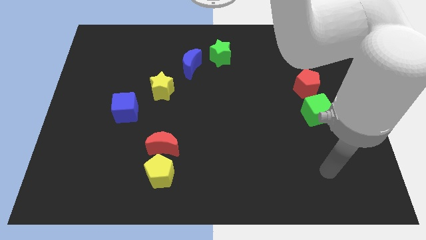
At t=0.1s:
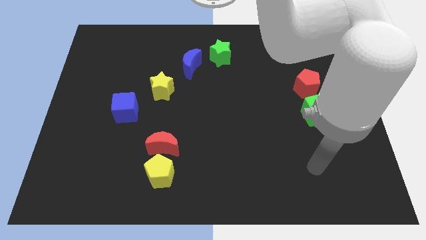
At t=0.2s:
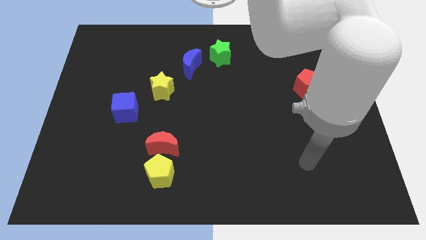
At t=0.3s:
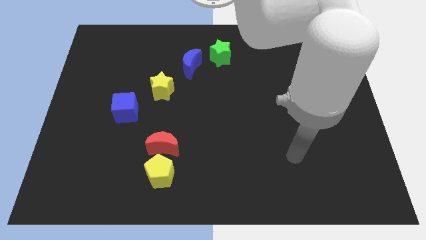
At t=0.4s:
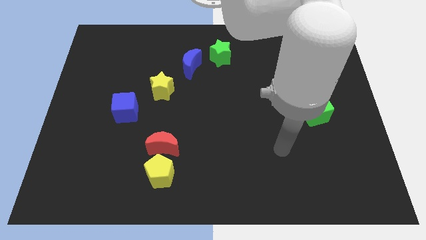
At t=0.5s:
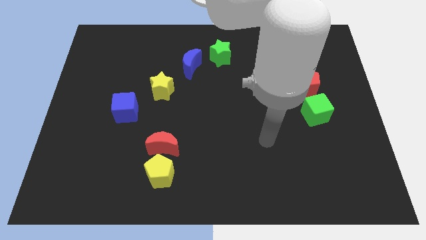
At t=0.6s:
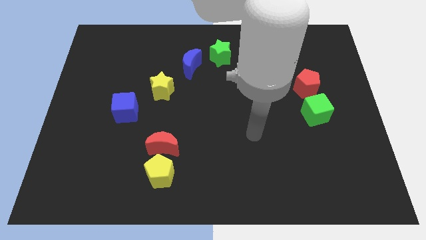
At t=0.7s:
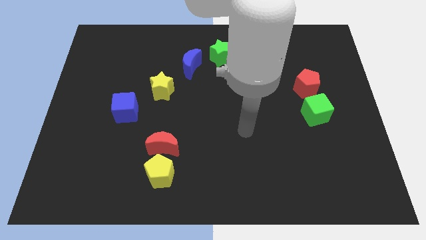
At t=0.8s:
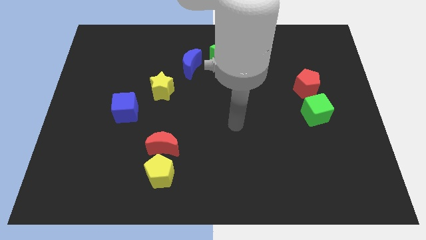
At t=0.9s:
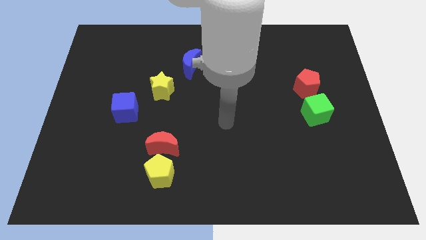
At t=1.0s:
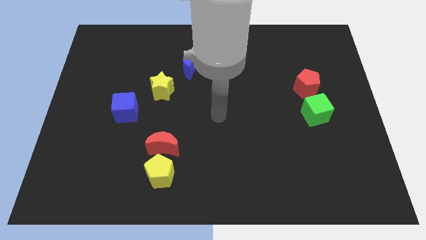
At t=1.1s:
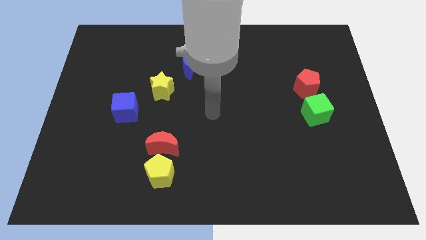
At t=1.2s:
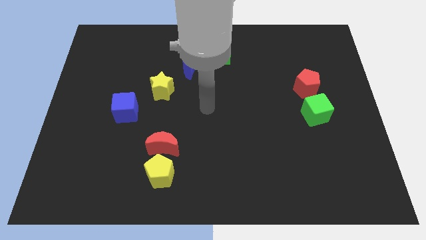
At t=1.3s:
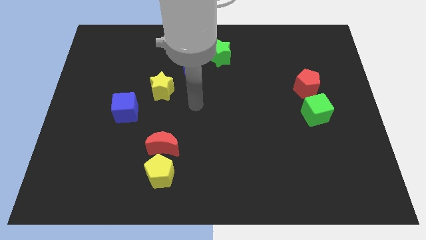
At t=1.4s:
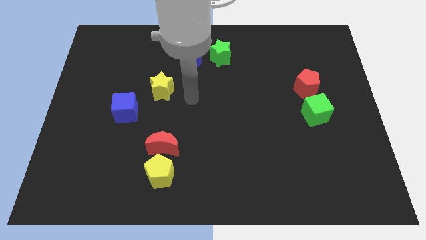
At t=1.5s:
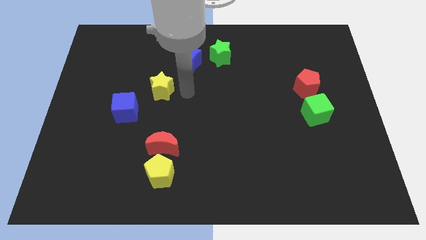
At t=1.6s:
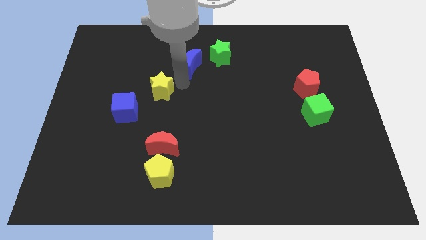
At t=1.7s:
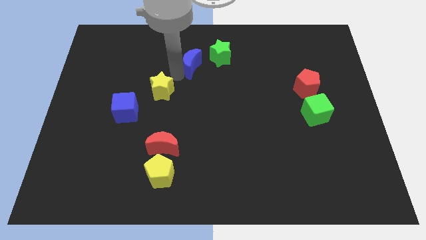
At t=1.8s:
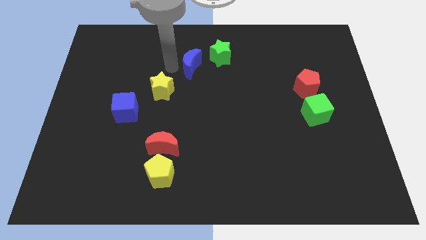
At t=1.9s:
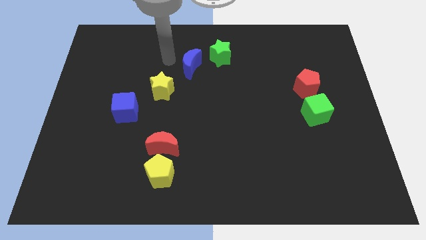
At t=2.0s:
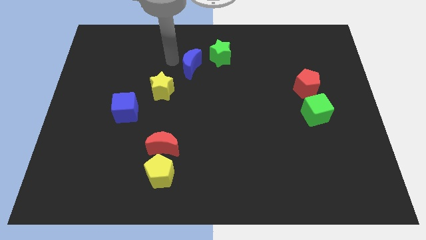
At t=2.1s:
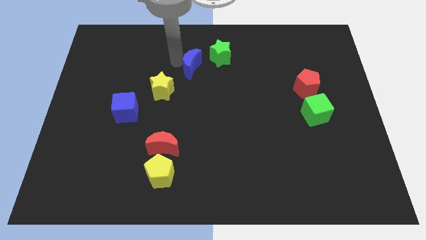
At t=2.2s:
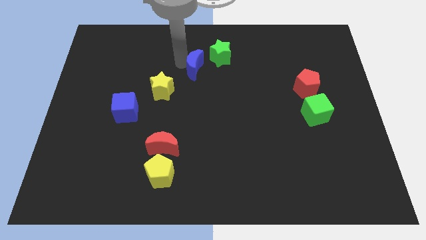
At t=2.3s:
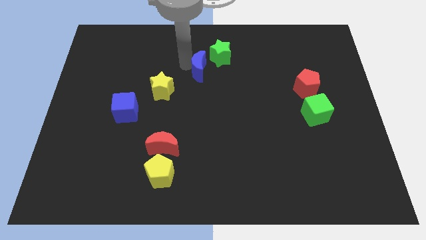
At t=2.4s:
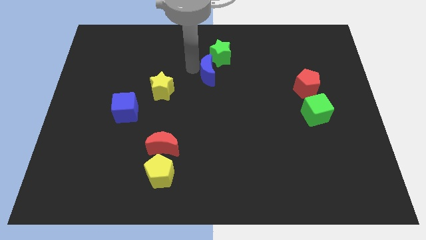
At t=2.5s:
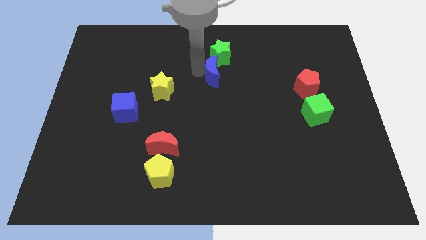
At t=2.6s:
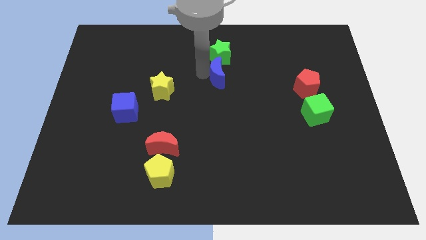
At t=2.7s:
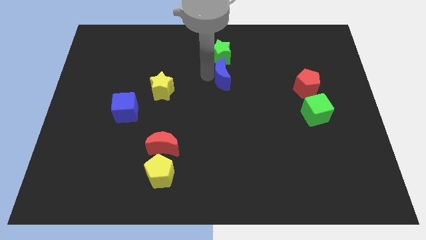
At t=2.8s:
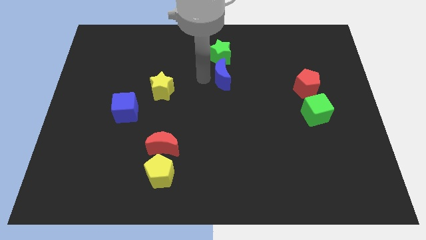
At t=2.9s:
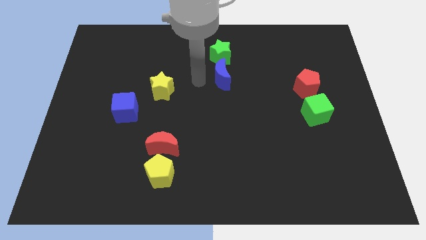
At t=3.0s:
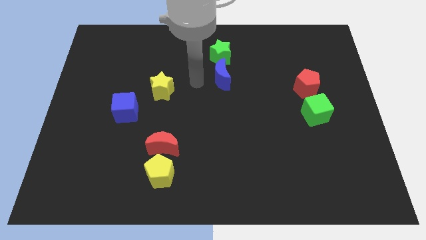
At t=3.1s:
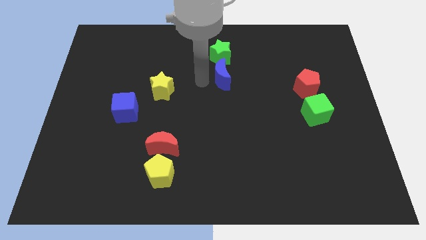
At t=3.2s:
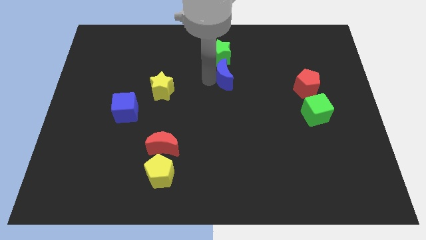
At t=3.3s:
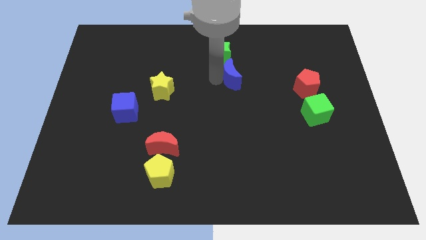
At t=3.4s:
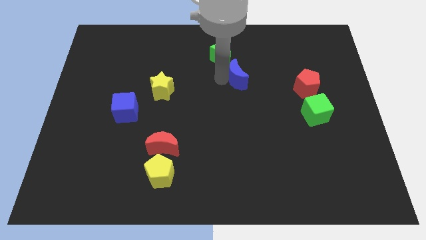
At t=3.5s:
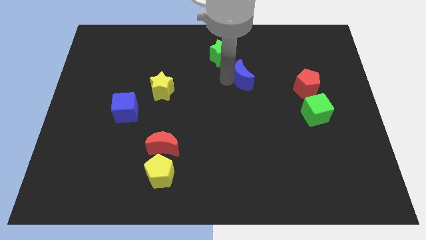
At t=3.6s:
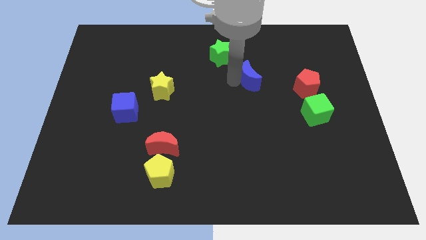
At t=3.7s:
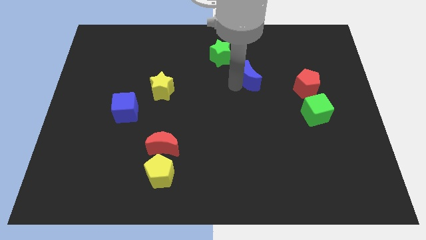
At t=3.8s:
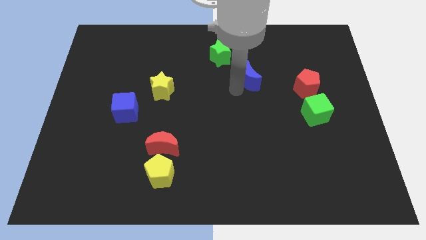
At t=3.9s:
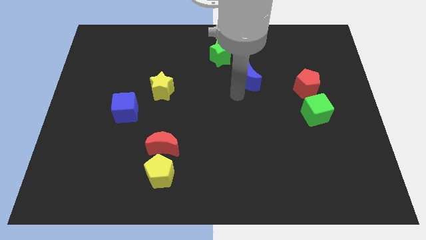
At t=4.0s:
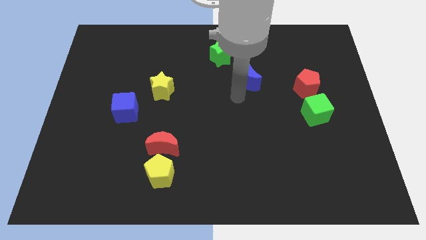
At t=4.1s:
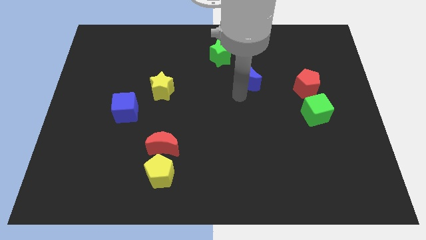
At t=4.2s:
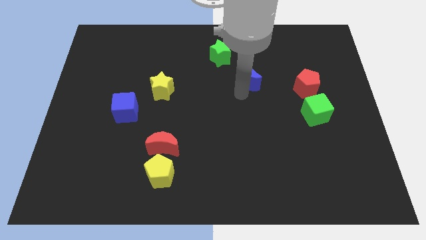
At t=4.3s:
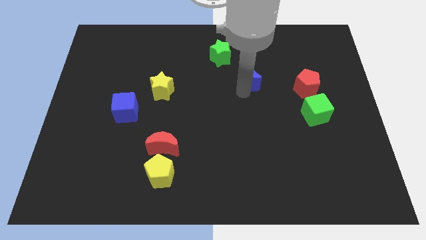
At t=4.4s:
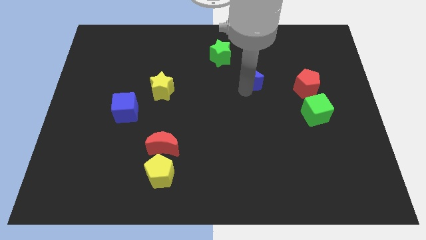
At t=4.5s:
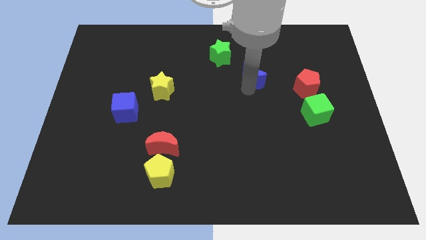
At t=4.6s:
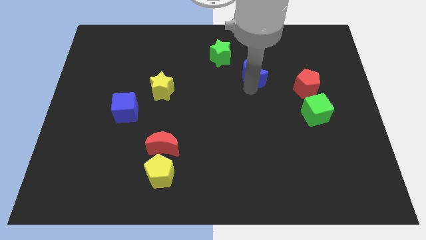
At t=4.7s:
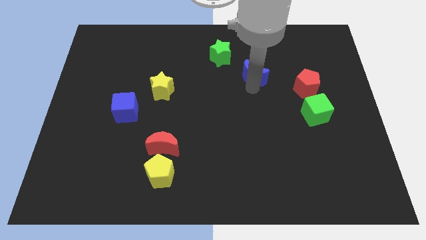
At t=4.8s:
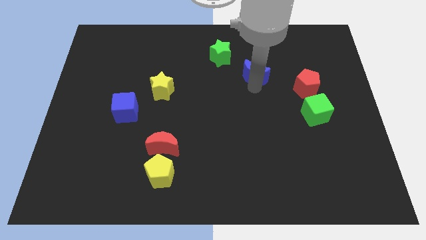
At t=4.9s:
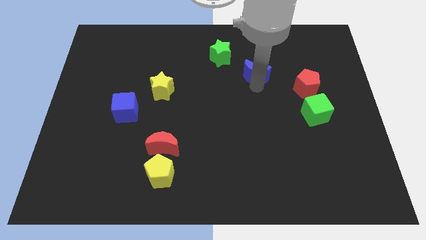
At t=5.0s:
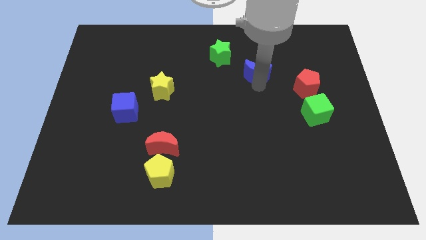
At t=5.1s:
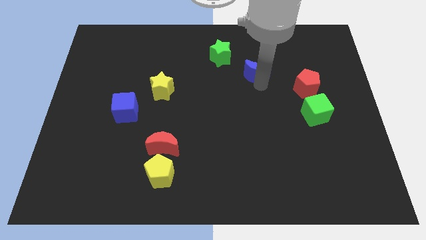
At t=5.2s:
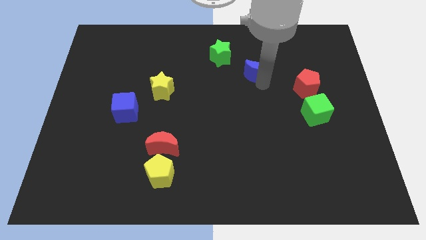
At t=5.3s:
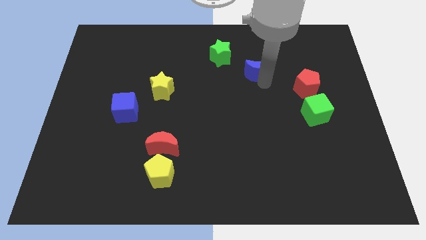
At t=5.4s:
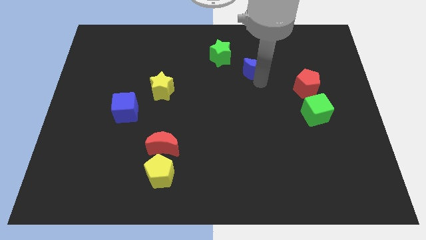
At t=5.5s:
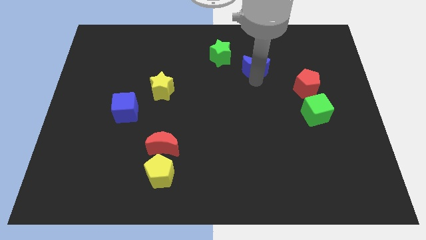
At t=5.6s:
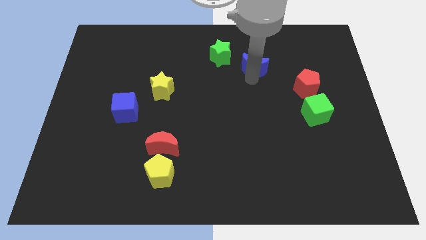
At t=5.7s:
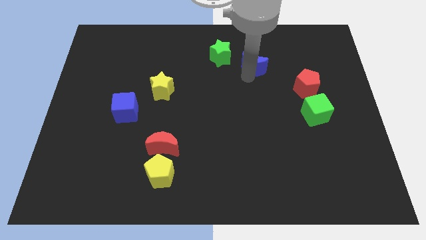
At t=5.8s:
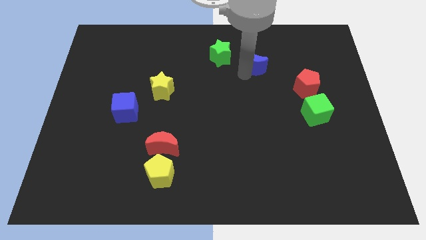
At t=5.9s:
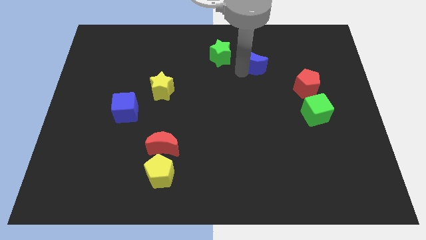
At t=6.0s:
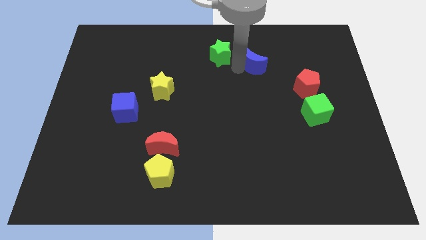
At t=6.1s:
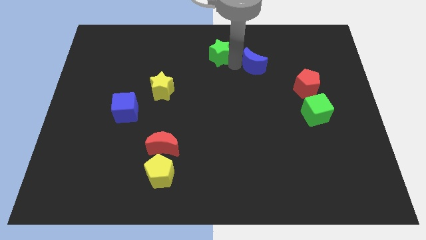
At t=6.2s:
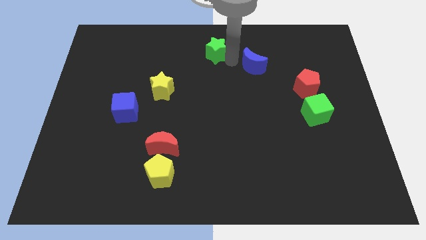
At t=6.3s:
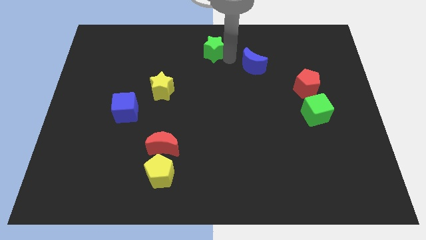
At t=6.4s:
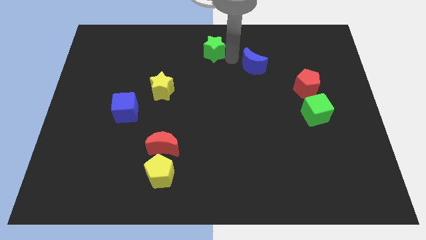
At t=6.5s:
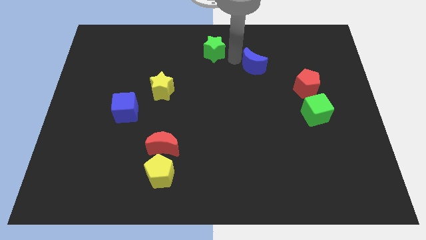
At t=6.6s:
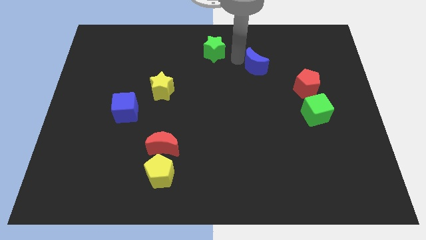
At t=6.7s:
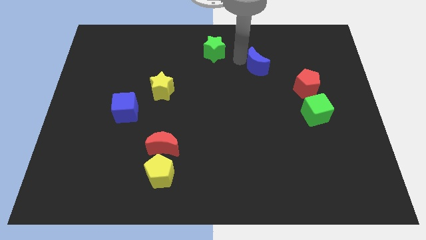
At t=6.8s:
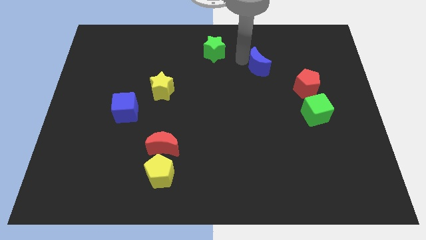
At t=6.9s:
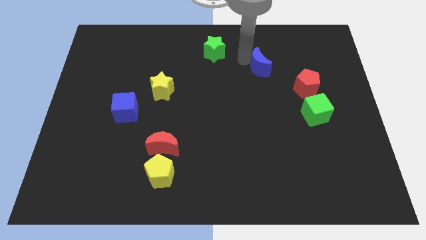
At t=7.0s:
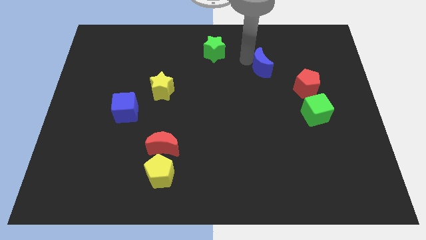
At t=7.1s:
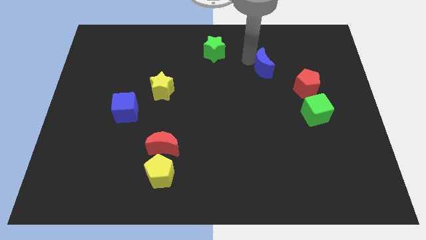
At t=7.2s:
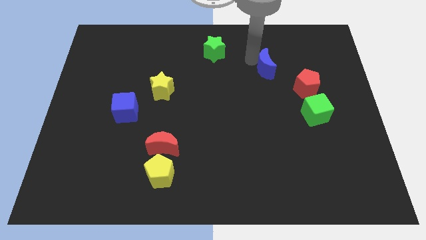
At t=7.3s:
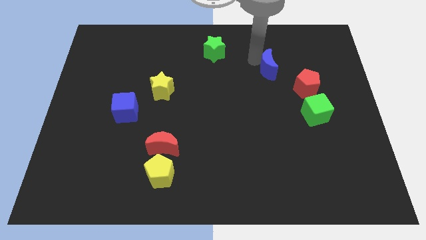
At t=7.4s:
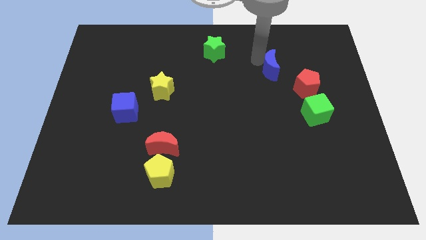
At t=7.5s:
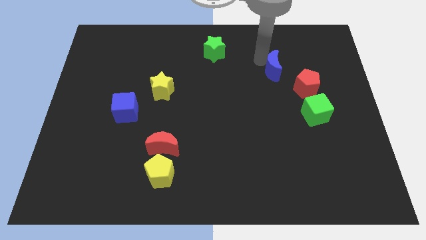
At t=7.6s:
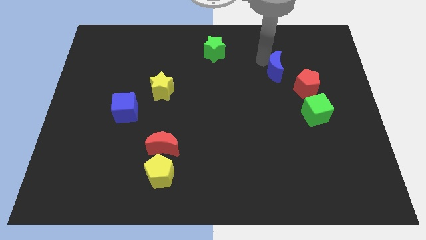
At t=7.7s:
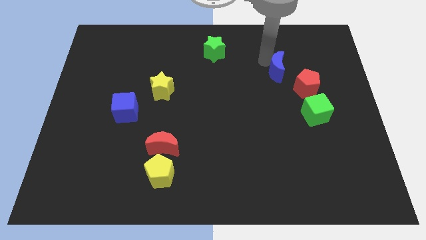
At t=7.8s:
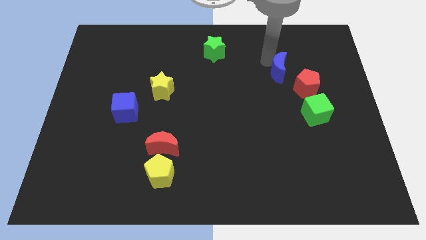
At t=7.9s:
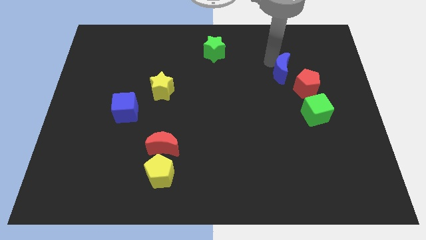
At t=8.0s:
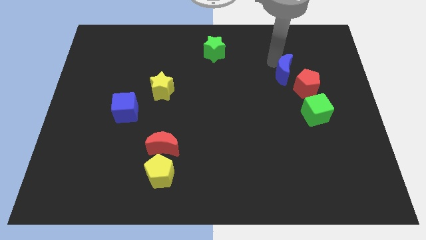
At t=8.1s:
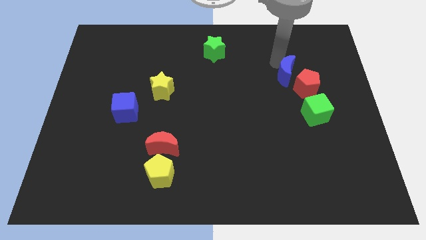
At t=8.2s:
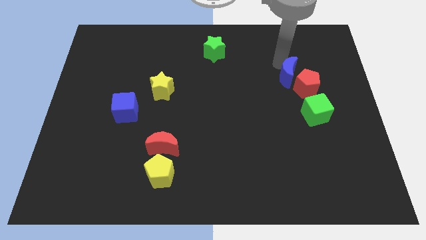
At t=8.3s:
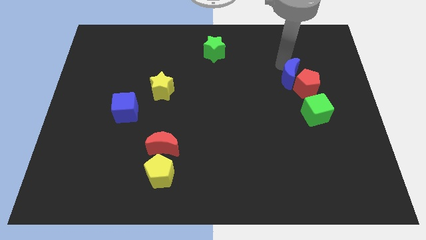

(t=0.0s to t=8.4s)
slide the blue moon above the green cube
